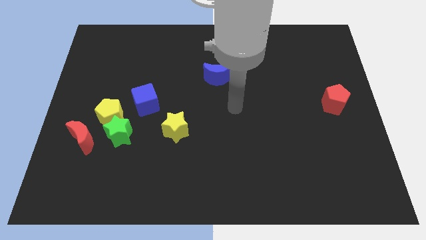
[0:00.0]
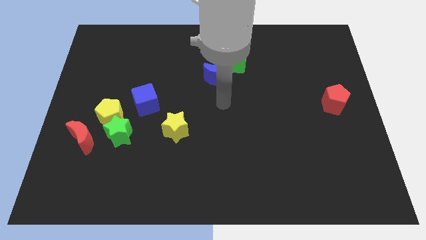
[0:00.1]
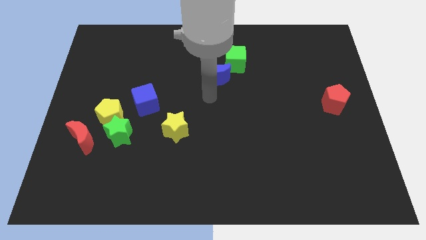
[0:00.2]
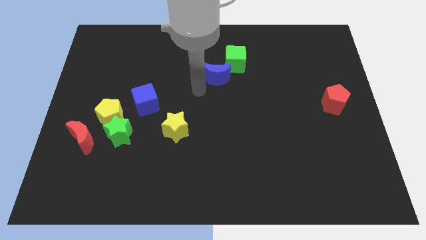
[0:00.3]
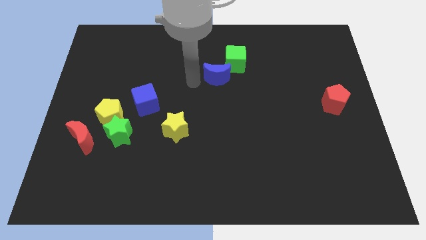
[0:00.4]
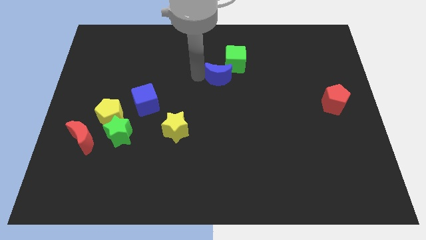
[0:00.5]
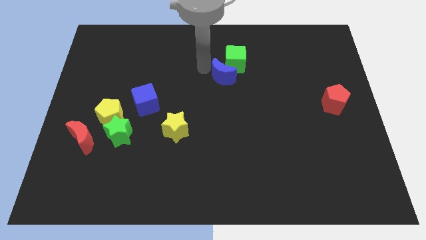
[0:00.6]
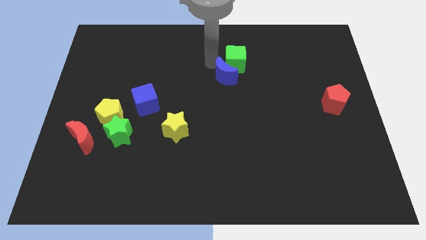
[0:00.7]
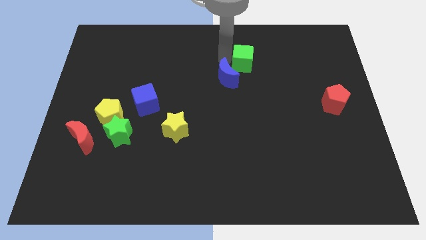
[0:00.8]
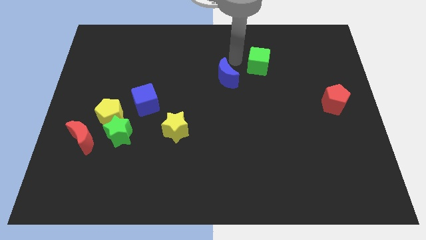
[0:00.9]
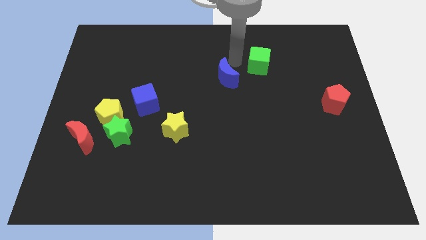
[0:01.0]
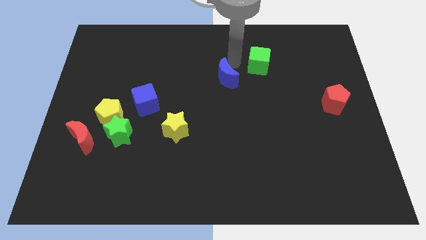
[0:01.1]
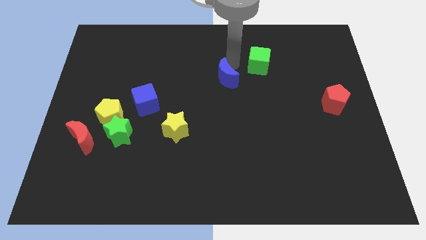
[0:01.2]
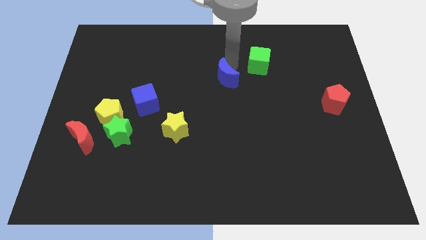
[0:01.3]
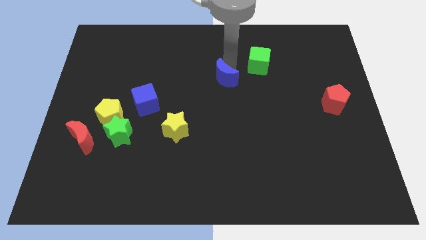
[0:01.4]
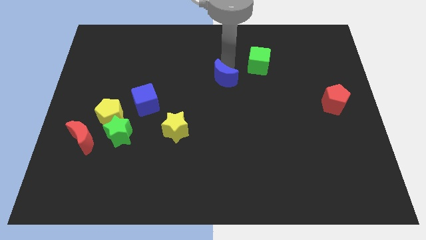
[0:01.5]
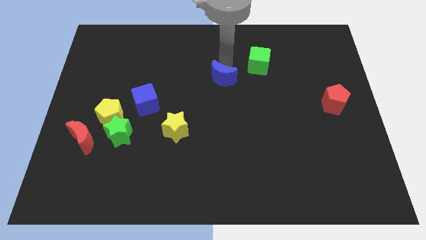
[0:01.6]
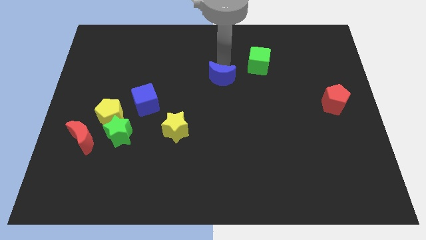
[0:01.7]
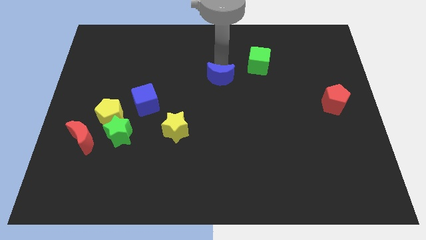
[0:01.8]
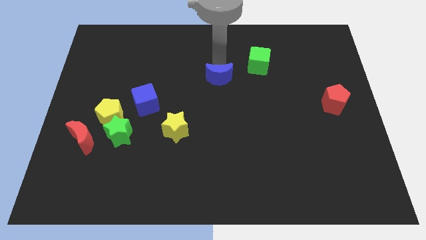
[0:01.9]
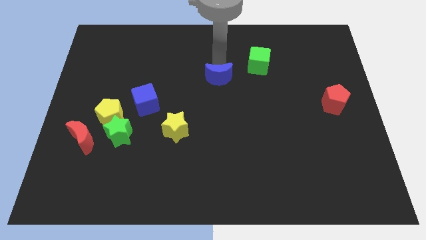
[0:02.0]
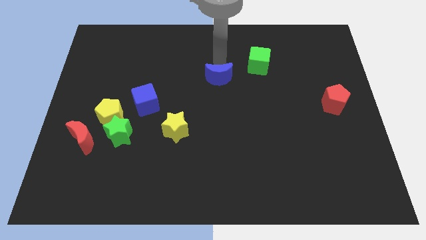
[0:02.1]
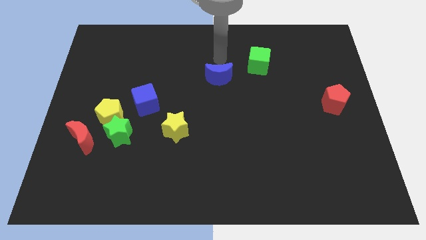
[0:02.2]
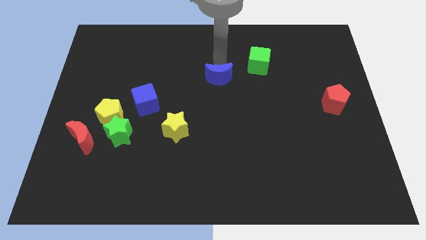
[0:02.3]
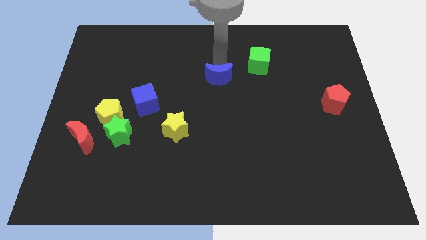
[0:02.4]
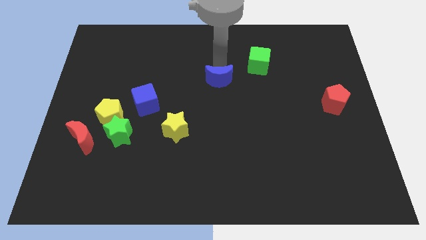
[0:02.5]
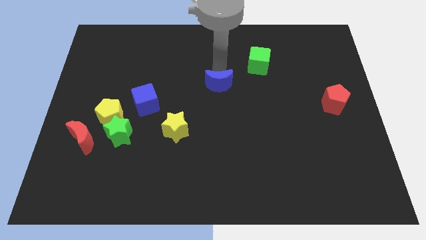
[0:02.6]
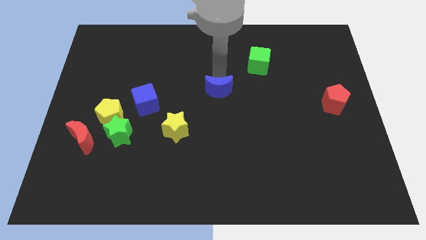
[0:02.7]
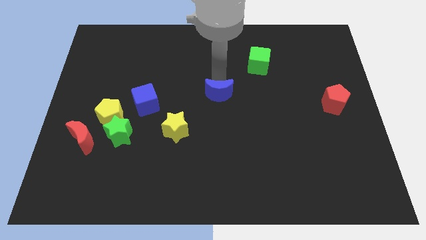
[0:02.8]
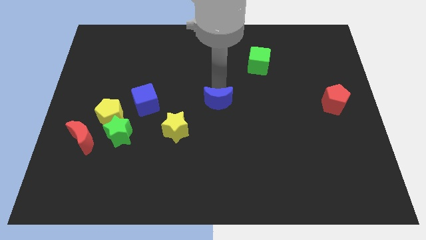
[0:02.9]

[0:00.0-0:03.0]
slide the blue moon a bit downwards

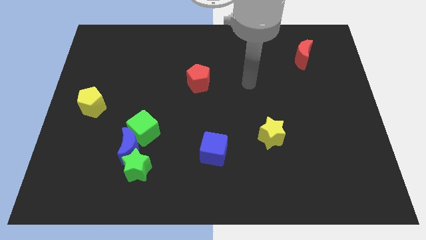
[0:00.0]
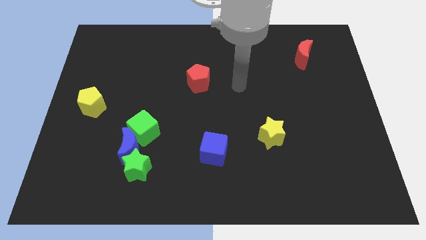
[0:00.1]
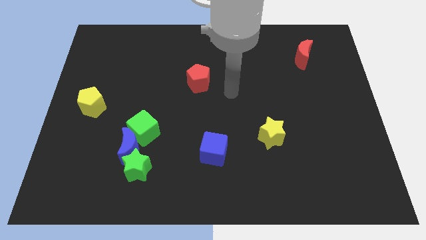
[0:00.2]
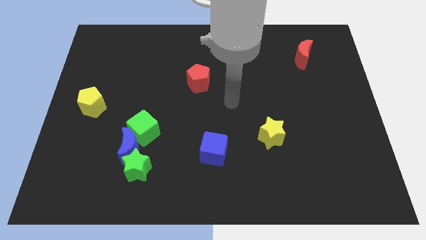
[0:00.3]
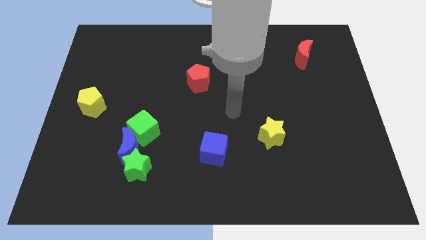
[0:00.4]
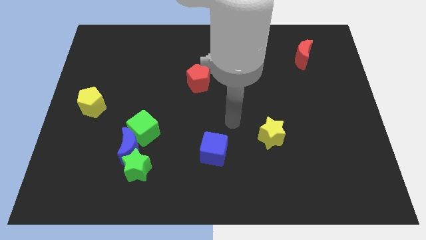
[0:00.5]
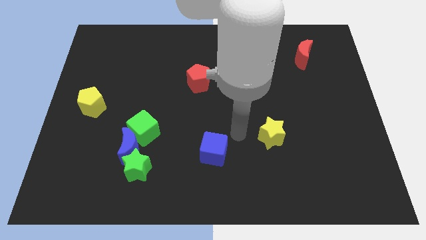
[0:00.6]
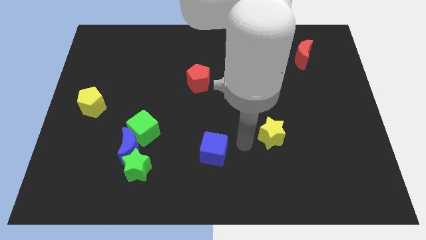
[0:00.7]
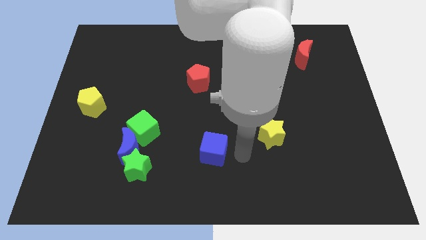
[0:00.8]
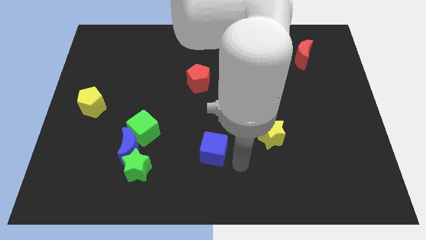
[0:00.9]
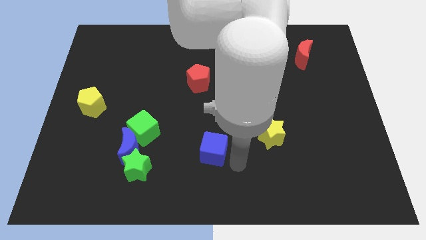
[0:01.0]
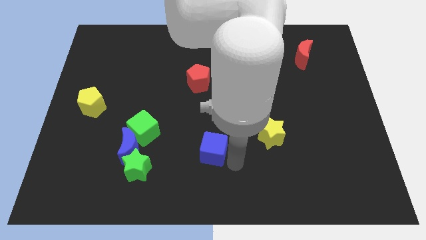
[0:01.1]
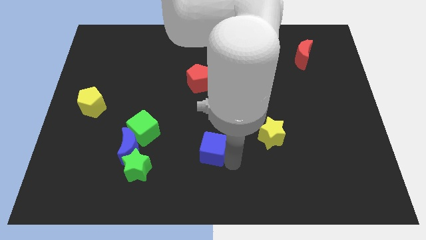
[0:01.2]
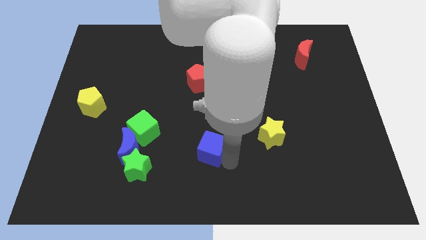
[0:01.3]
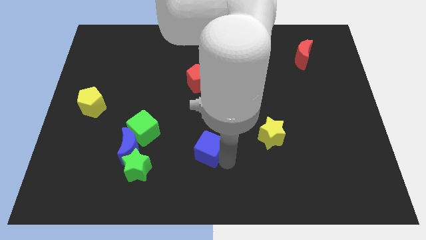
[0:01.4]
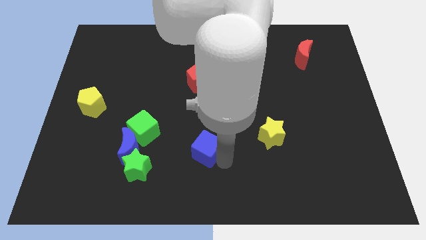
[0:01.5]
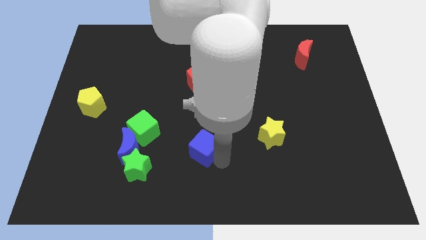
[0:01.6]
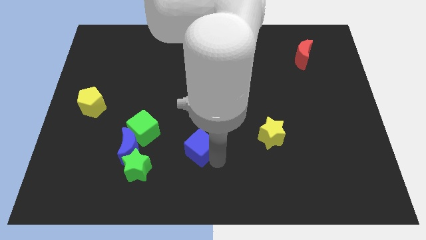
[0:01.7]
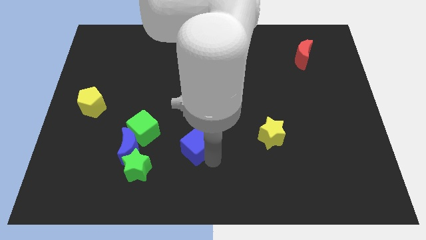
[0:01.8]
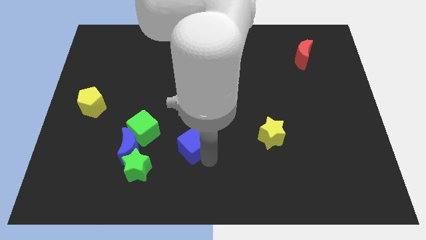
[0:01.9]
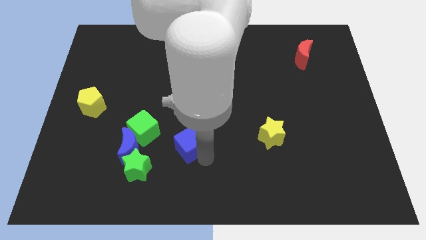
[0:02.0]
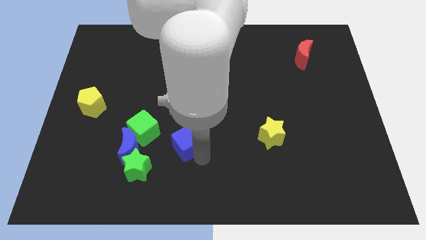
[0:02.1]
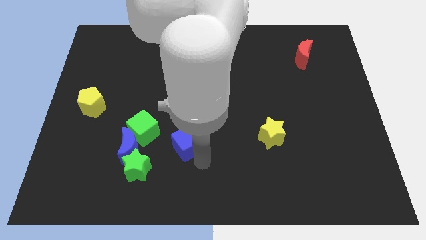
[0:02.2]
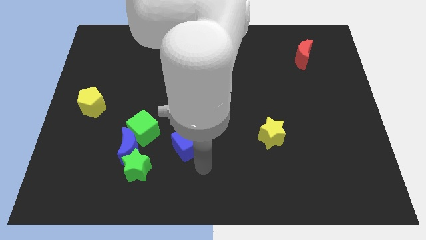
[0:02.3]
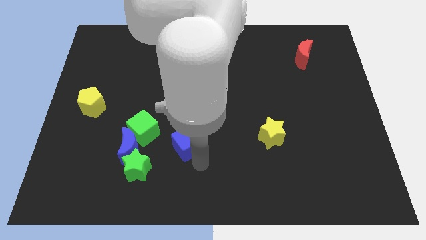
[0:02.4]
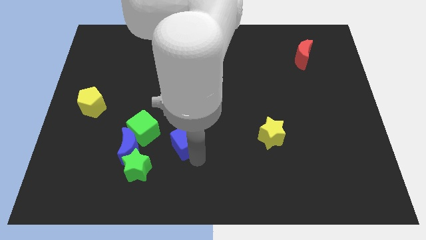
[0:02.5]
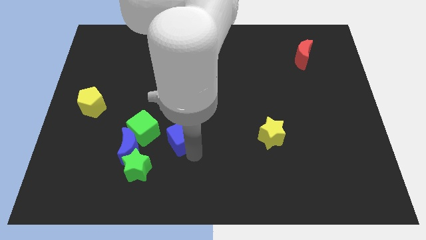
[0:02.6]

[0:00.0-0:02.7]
push the blue cube a bit diagonally upwards and to the left

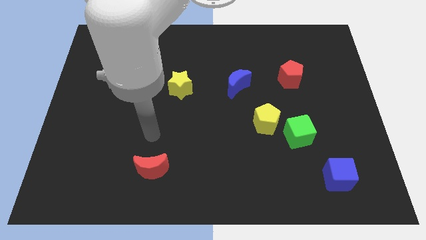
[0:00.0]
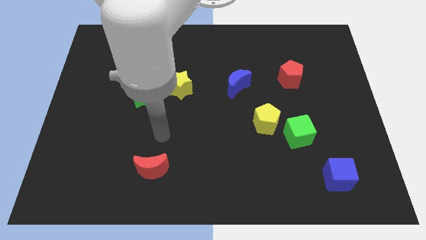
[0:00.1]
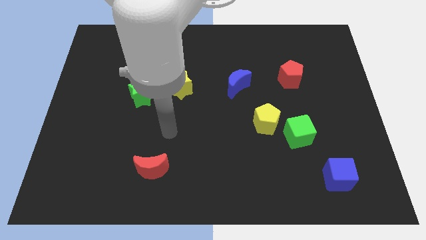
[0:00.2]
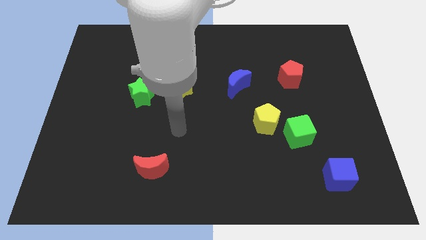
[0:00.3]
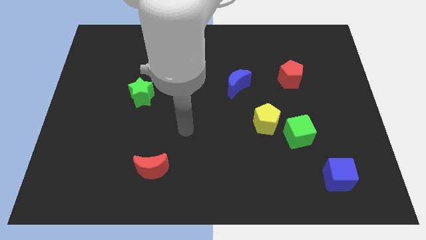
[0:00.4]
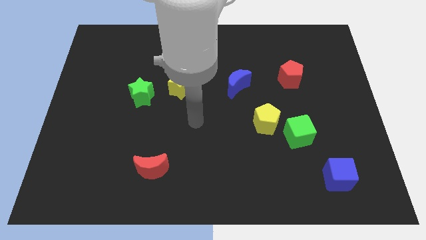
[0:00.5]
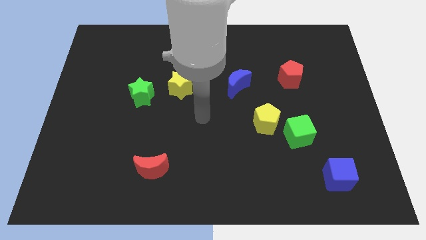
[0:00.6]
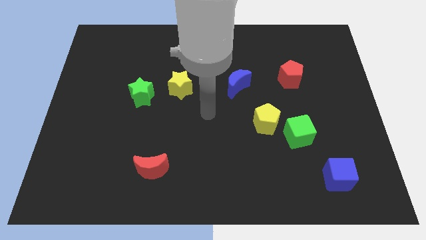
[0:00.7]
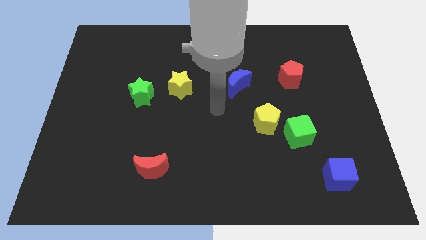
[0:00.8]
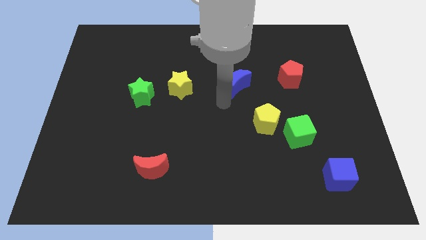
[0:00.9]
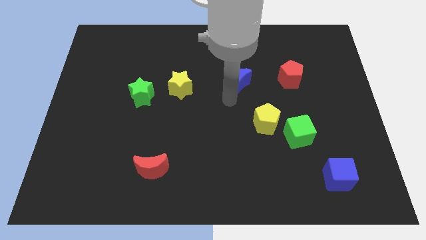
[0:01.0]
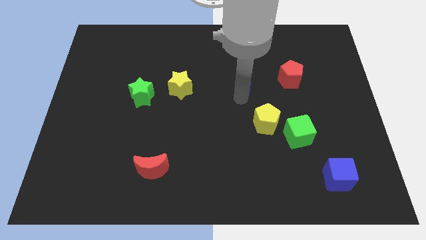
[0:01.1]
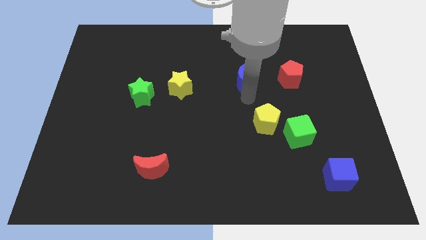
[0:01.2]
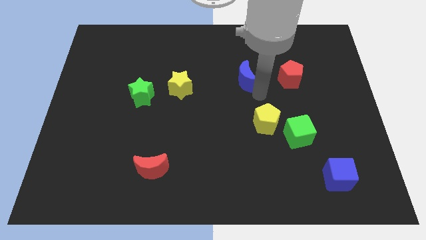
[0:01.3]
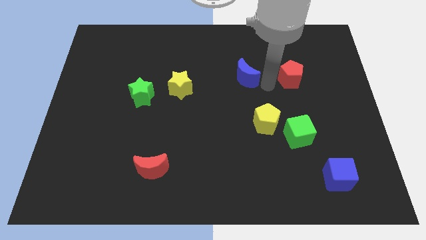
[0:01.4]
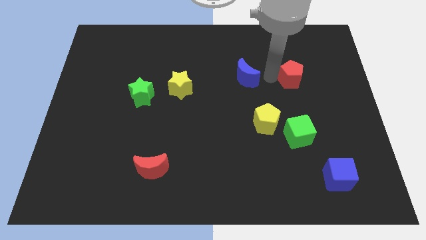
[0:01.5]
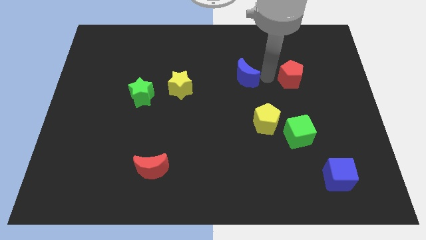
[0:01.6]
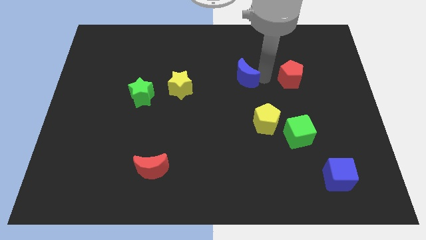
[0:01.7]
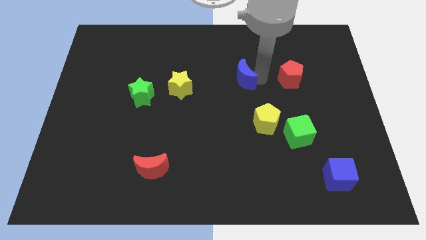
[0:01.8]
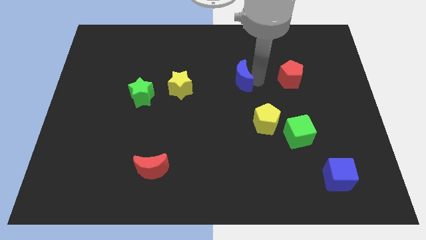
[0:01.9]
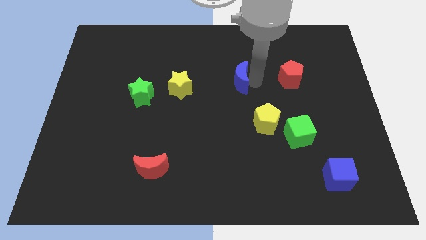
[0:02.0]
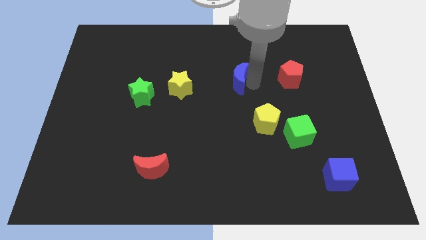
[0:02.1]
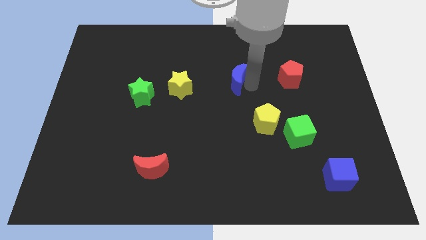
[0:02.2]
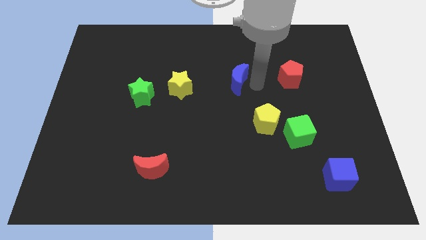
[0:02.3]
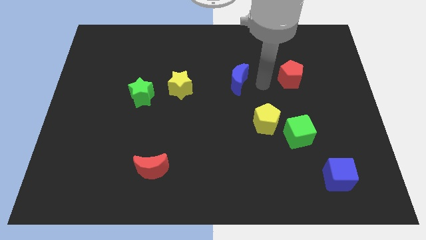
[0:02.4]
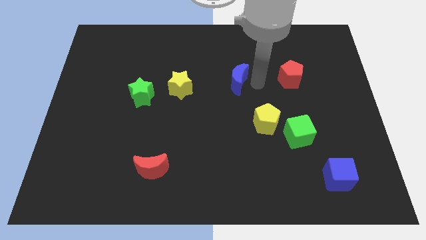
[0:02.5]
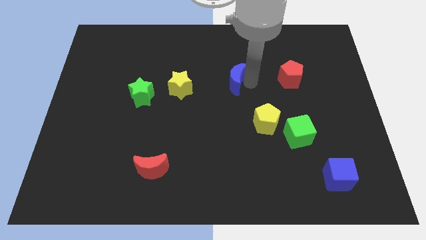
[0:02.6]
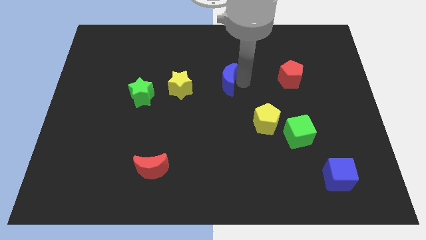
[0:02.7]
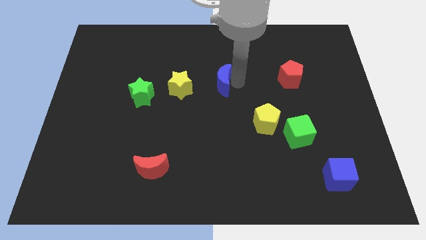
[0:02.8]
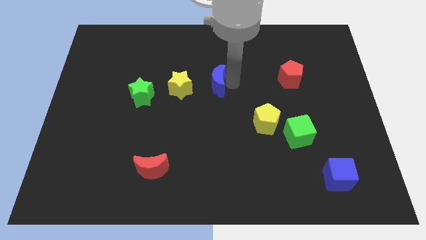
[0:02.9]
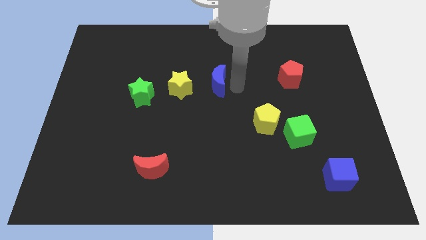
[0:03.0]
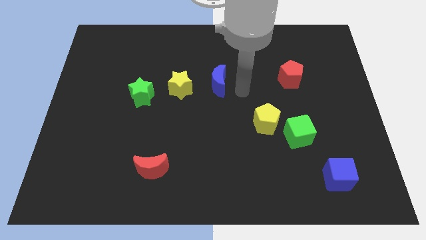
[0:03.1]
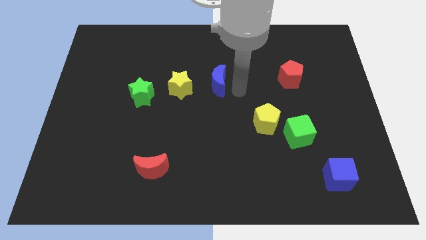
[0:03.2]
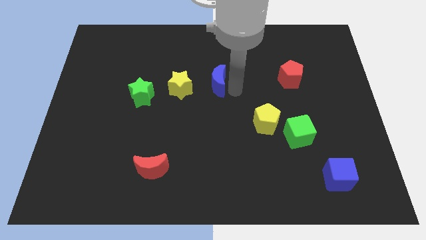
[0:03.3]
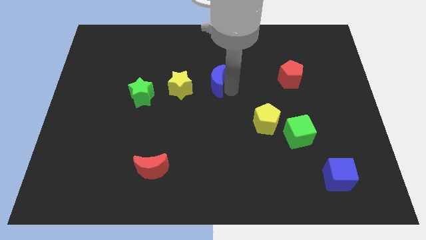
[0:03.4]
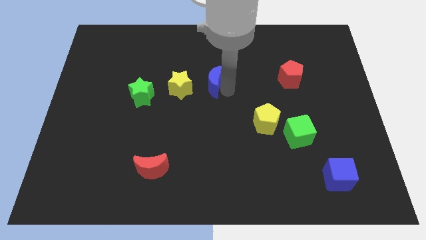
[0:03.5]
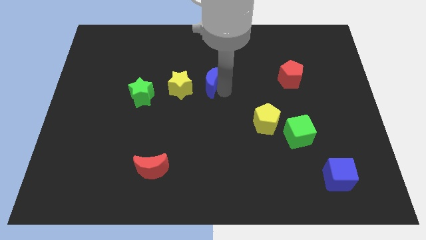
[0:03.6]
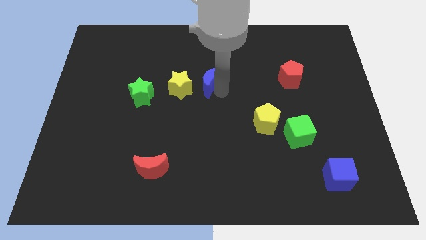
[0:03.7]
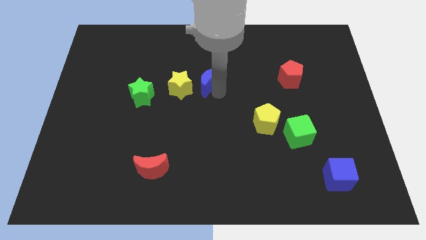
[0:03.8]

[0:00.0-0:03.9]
move the blue moon left a little
